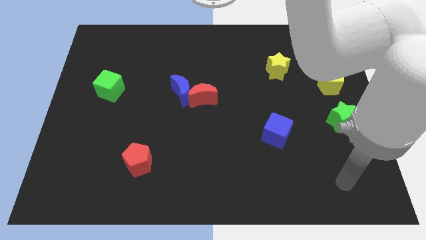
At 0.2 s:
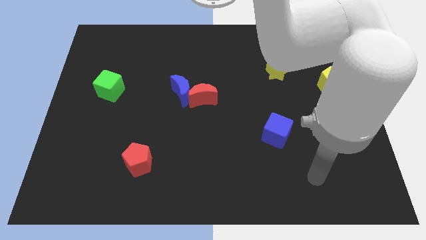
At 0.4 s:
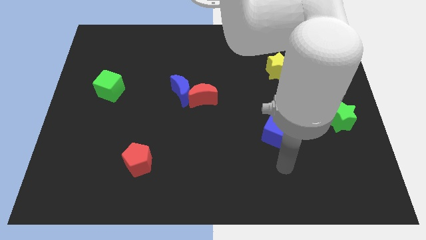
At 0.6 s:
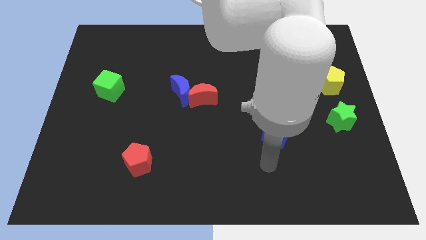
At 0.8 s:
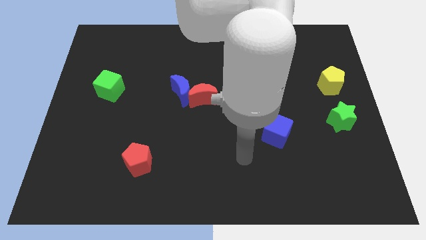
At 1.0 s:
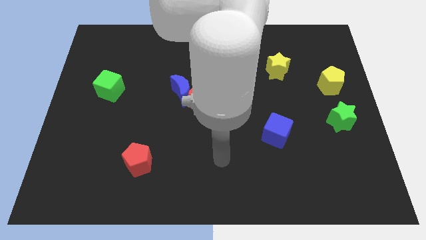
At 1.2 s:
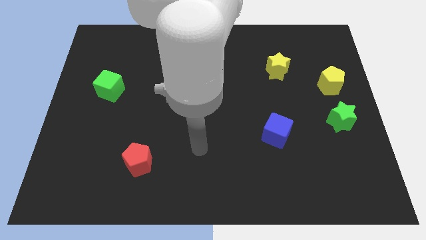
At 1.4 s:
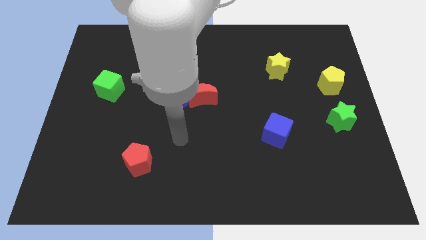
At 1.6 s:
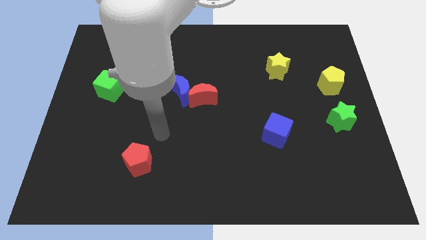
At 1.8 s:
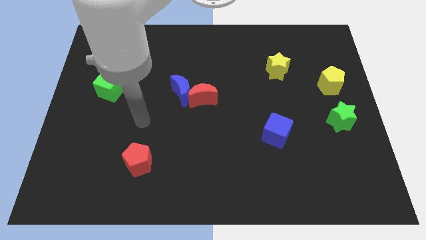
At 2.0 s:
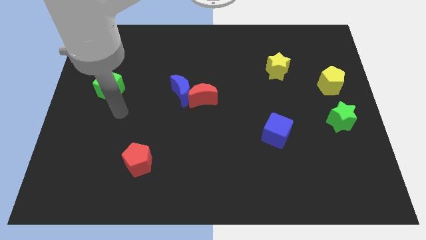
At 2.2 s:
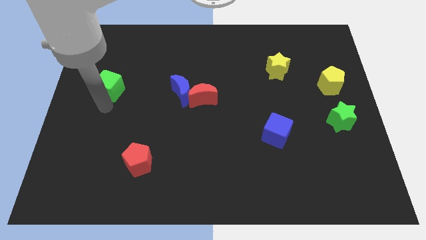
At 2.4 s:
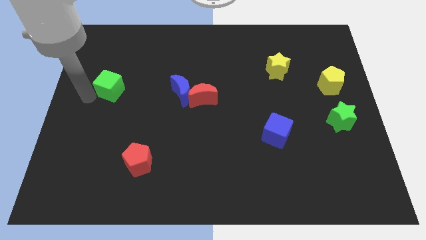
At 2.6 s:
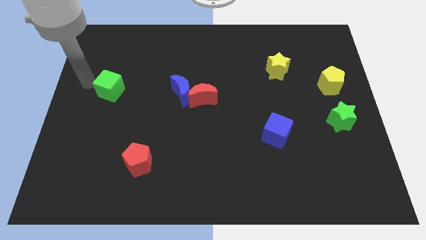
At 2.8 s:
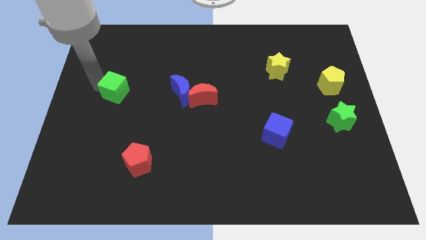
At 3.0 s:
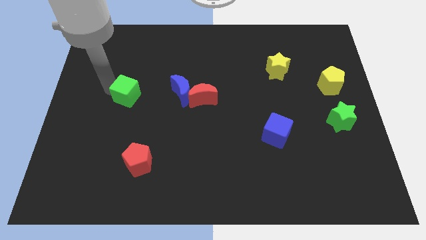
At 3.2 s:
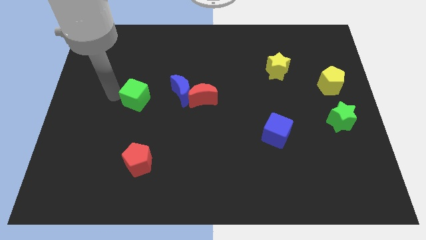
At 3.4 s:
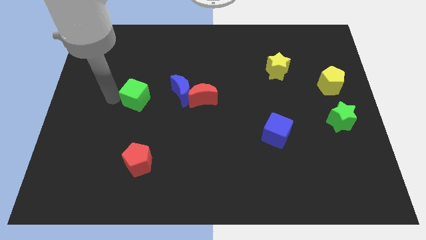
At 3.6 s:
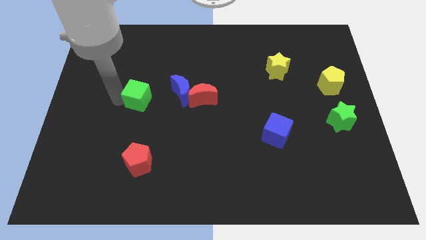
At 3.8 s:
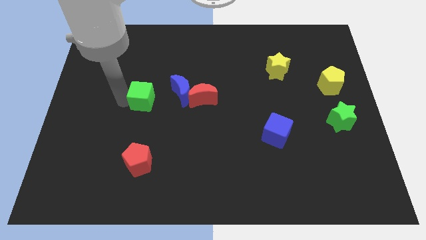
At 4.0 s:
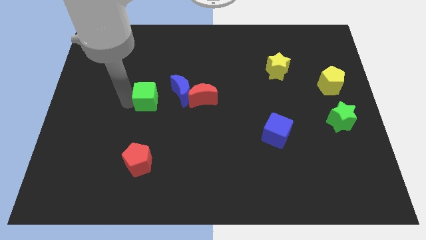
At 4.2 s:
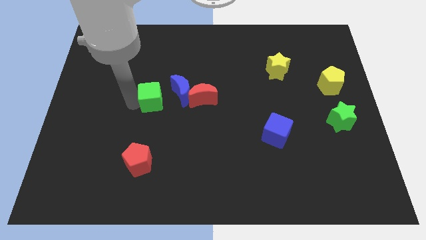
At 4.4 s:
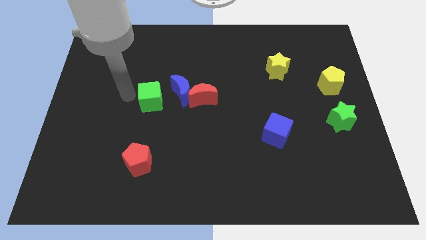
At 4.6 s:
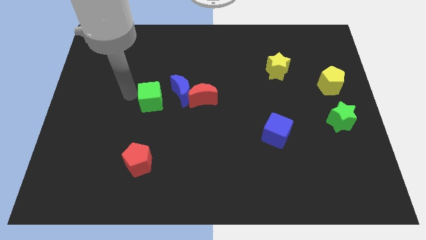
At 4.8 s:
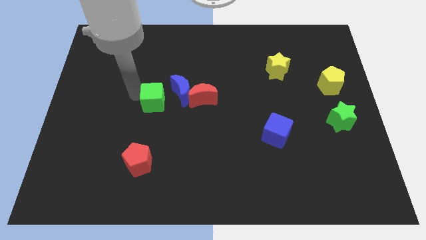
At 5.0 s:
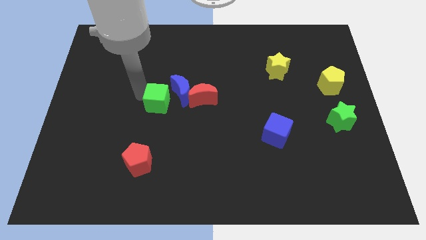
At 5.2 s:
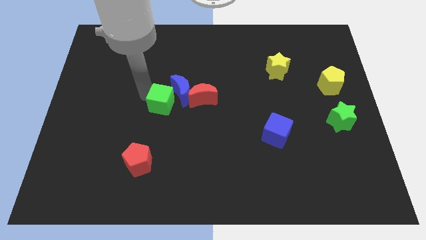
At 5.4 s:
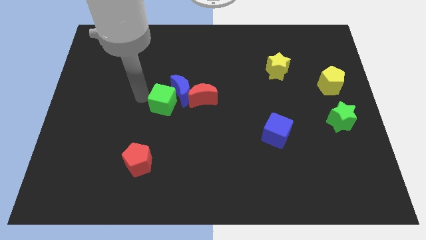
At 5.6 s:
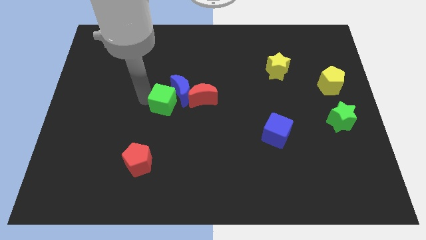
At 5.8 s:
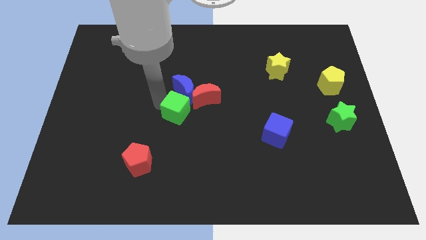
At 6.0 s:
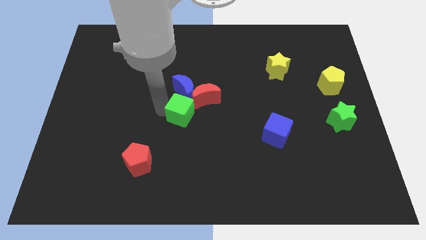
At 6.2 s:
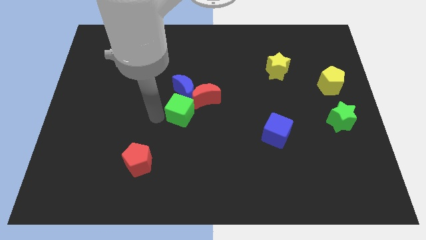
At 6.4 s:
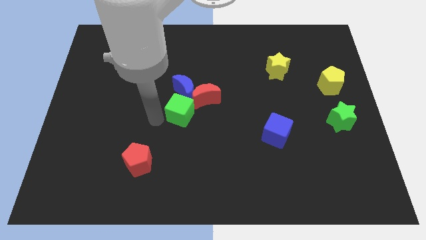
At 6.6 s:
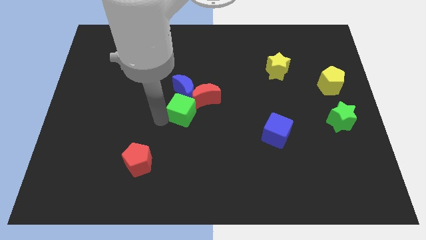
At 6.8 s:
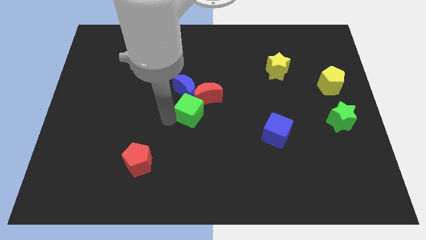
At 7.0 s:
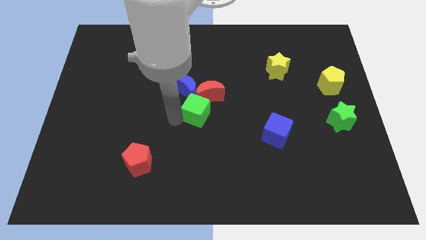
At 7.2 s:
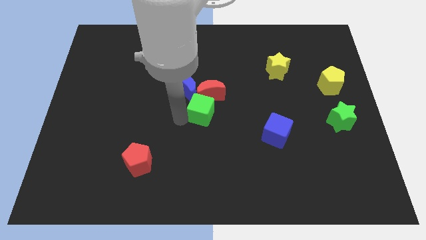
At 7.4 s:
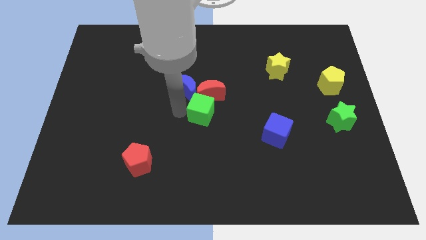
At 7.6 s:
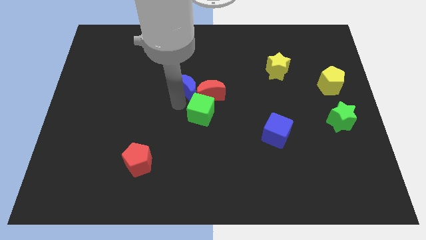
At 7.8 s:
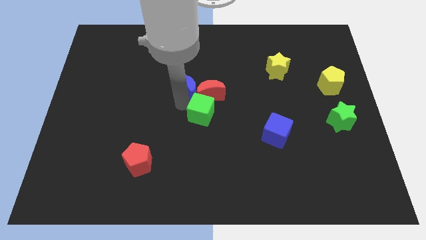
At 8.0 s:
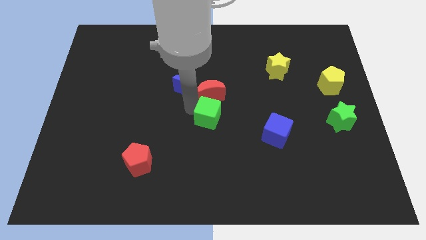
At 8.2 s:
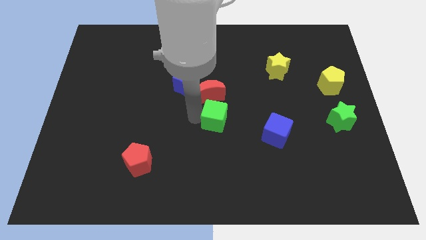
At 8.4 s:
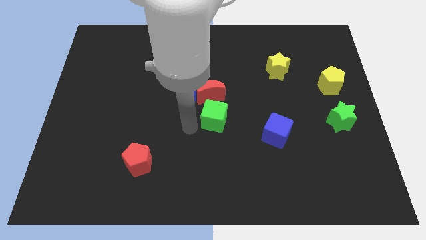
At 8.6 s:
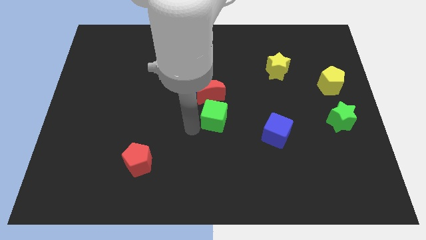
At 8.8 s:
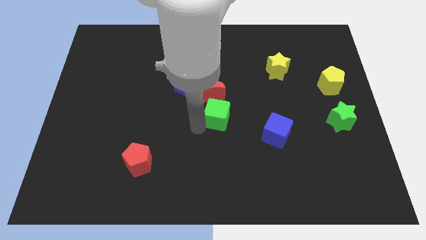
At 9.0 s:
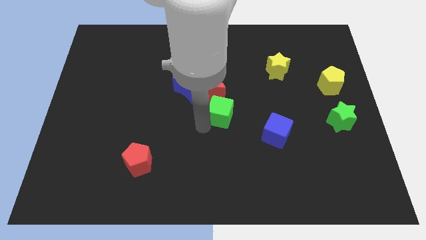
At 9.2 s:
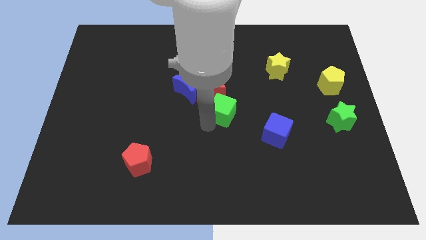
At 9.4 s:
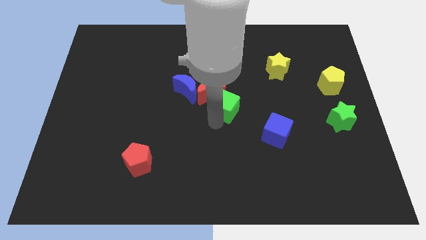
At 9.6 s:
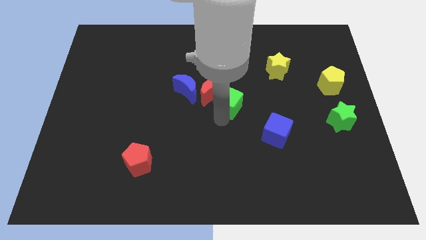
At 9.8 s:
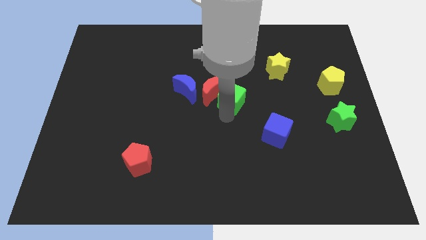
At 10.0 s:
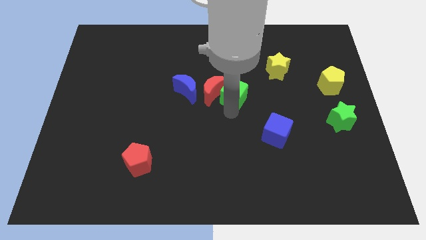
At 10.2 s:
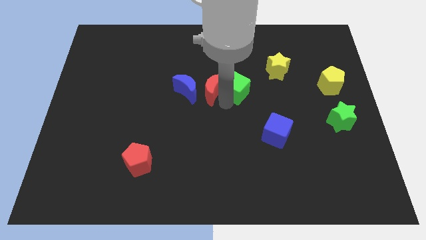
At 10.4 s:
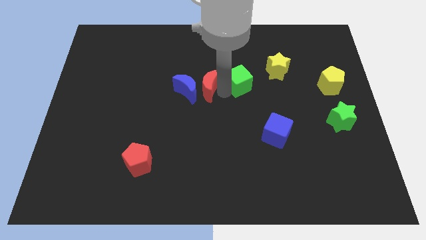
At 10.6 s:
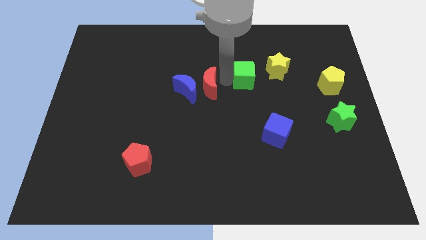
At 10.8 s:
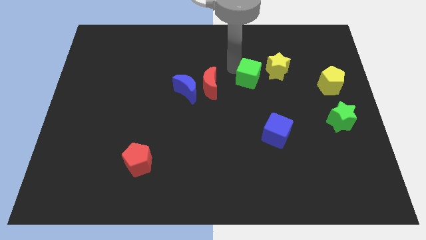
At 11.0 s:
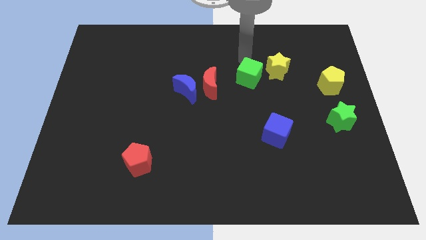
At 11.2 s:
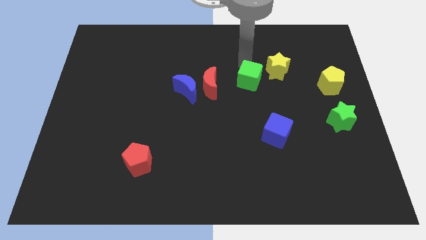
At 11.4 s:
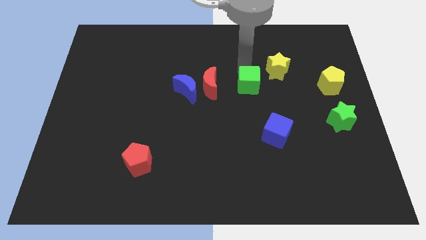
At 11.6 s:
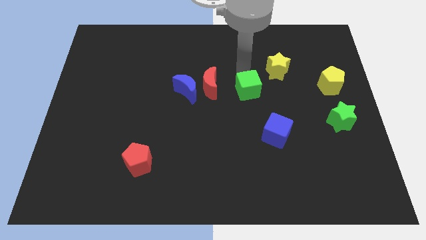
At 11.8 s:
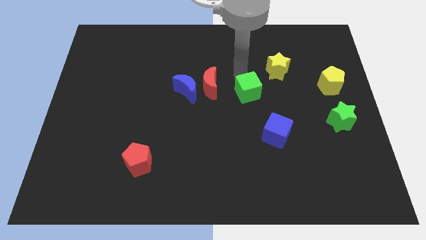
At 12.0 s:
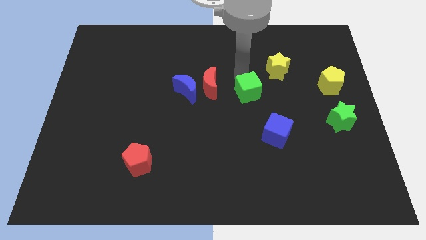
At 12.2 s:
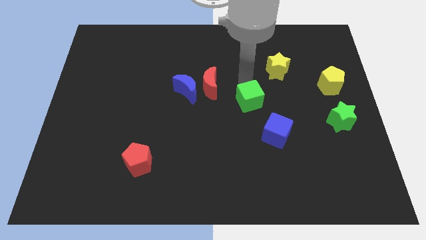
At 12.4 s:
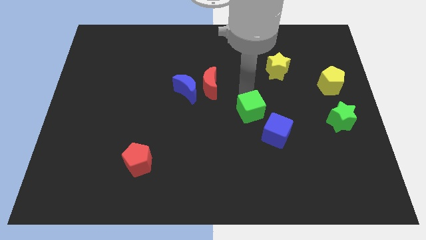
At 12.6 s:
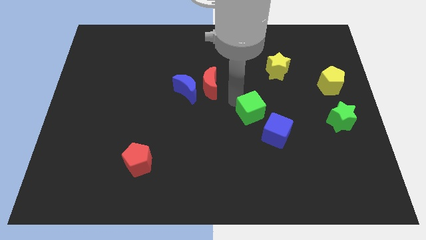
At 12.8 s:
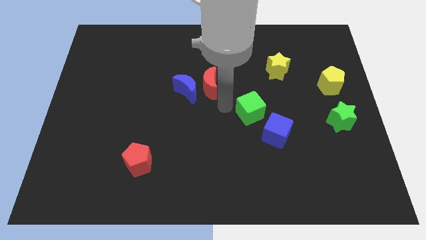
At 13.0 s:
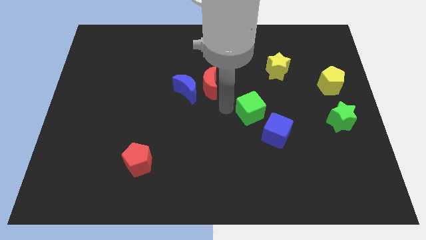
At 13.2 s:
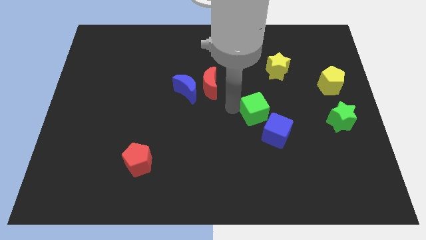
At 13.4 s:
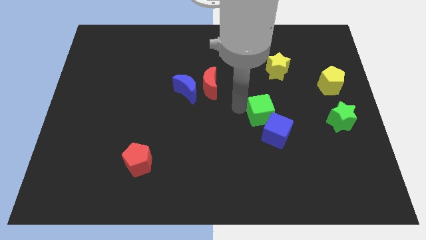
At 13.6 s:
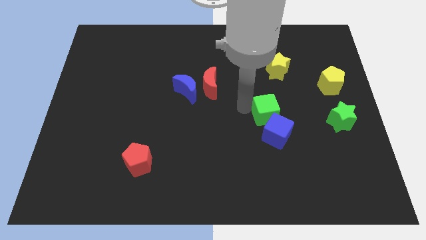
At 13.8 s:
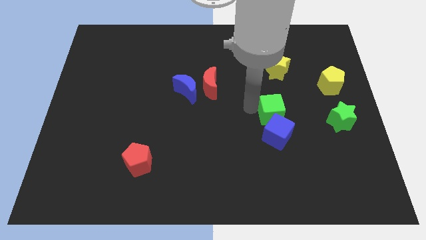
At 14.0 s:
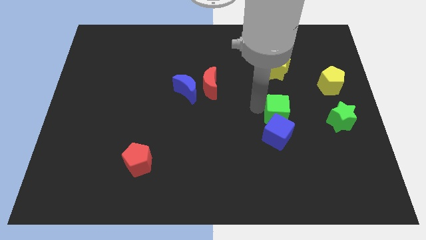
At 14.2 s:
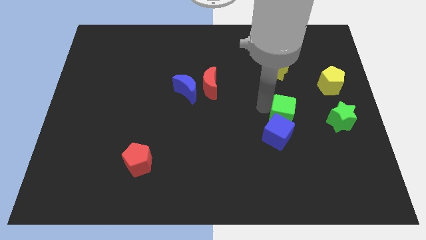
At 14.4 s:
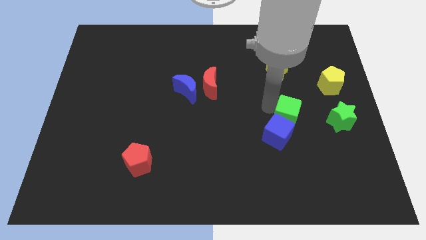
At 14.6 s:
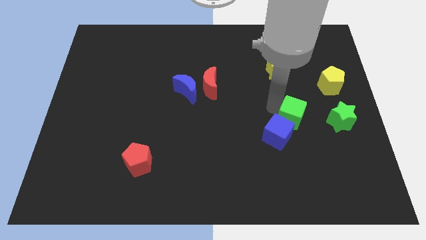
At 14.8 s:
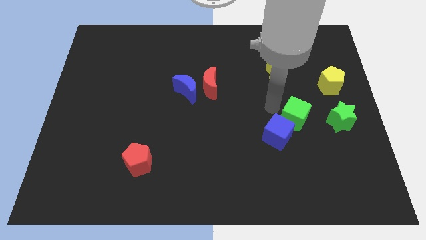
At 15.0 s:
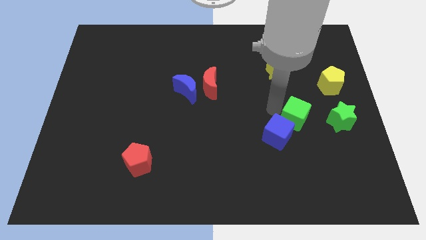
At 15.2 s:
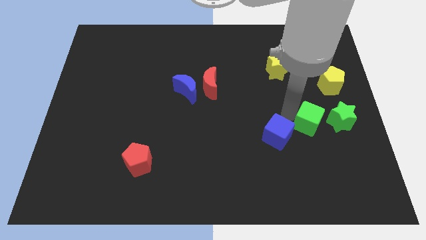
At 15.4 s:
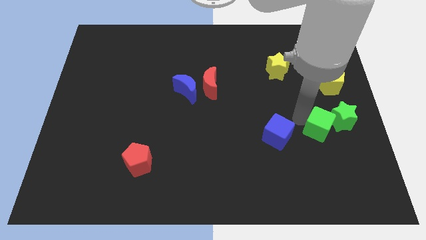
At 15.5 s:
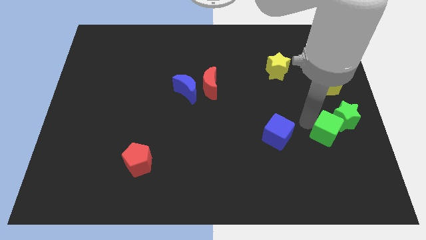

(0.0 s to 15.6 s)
move the green cube to the bottom side of the yellow pentagon
